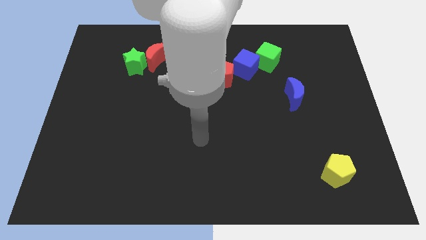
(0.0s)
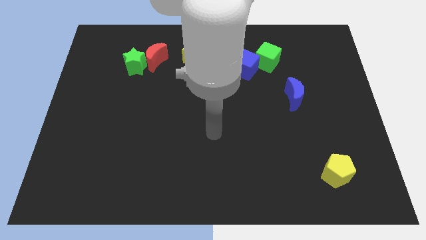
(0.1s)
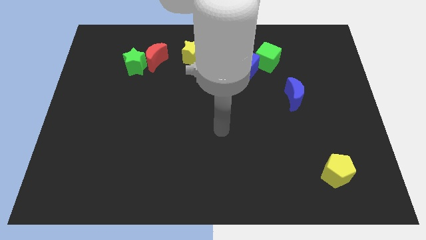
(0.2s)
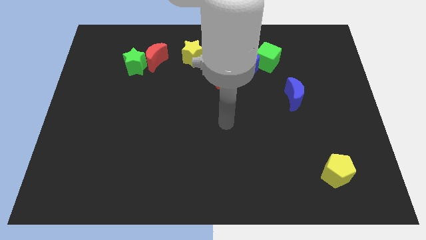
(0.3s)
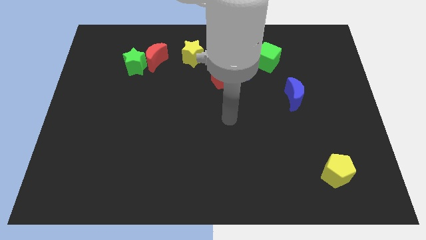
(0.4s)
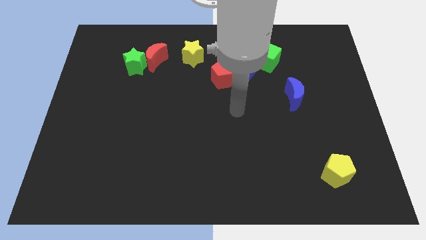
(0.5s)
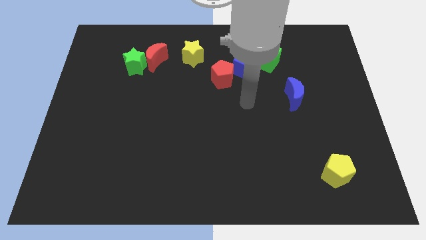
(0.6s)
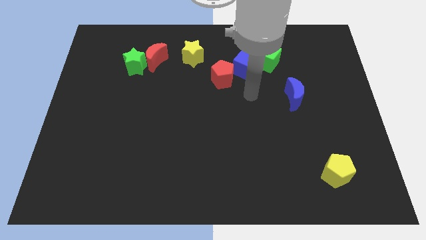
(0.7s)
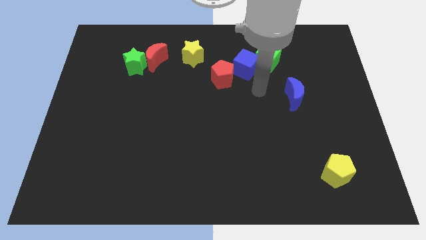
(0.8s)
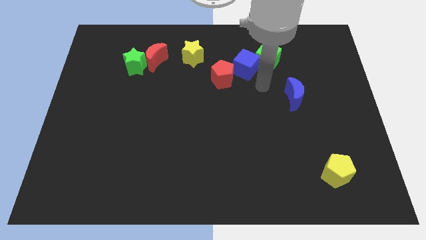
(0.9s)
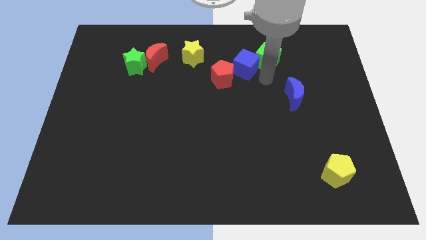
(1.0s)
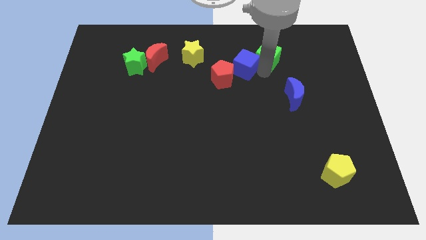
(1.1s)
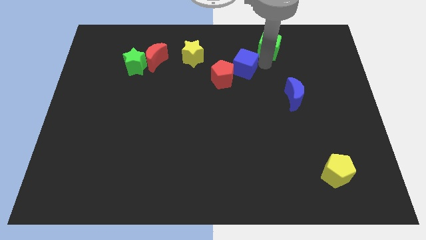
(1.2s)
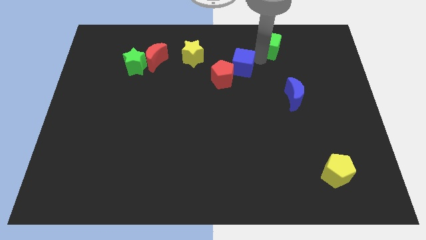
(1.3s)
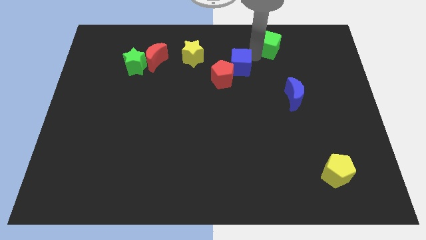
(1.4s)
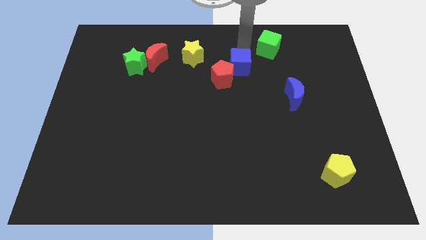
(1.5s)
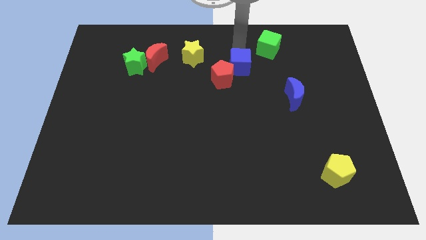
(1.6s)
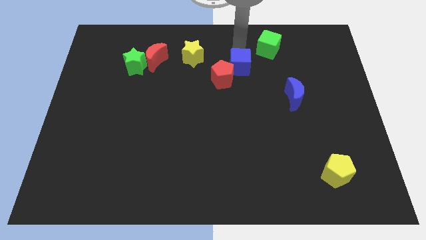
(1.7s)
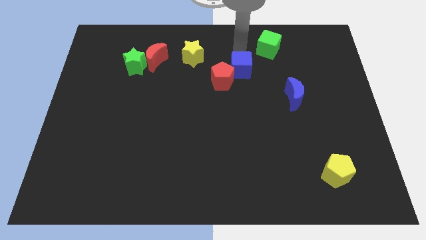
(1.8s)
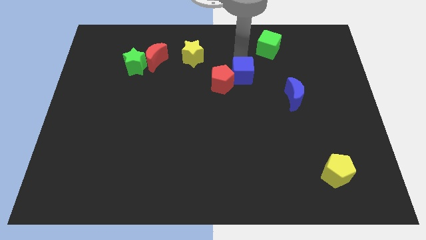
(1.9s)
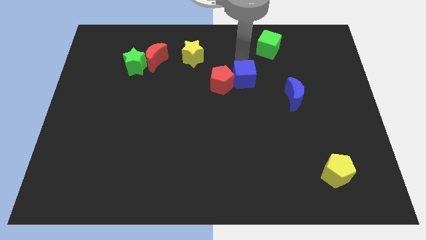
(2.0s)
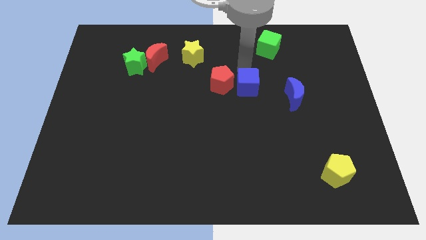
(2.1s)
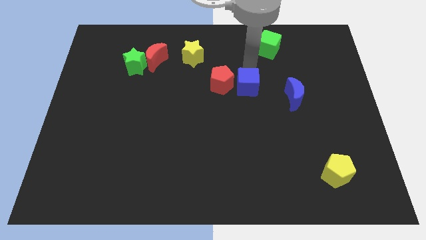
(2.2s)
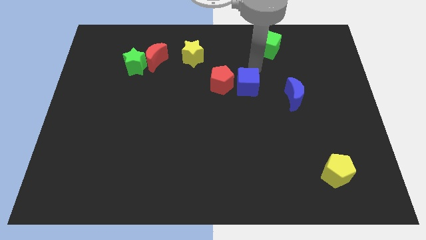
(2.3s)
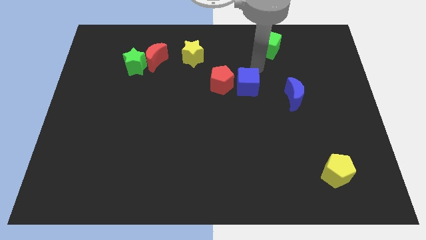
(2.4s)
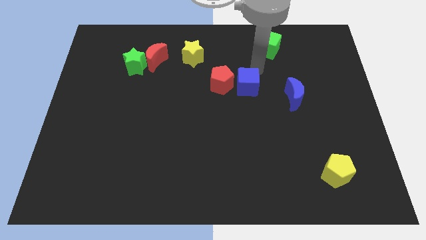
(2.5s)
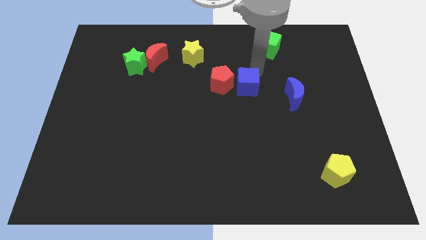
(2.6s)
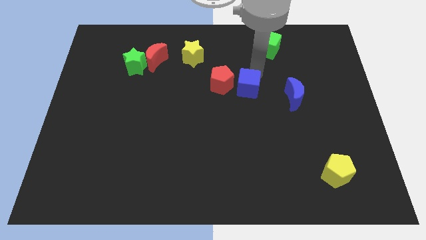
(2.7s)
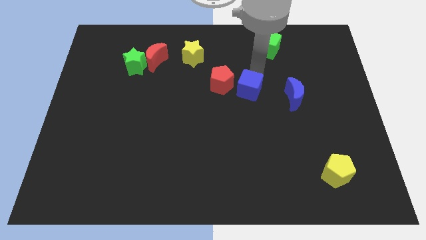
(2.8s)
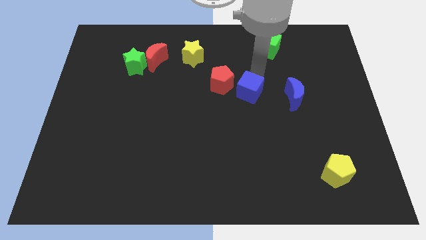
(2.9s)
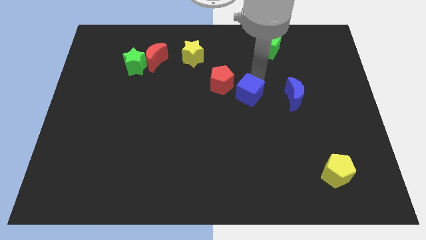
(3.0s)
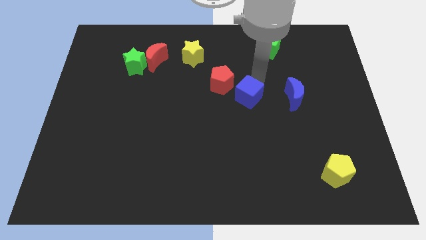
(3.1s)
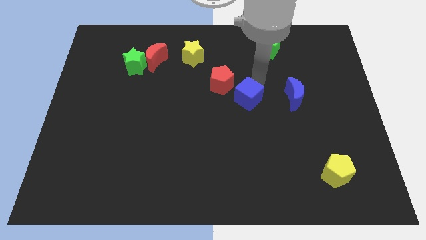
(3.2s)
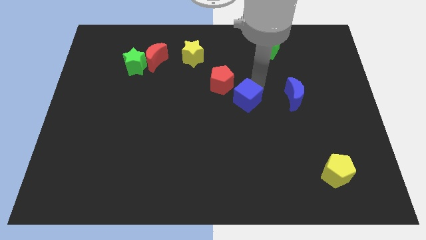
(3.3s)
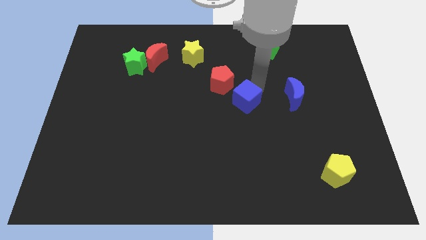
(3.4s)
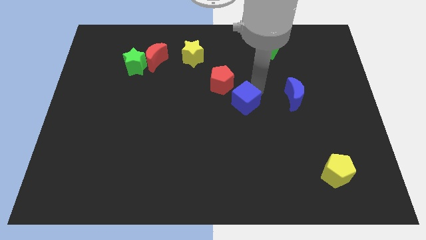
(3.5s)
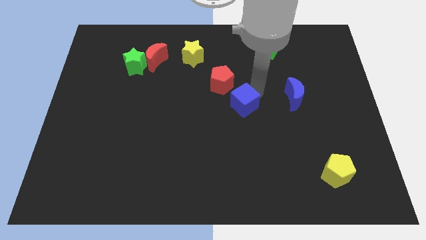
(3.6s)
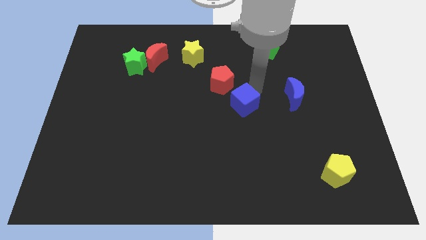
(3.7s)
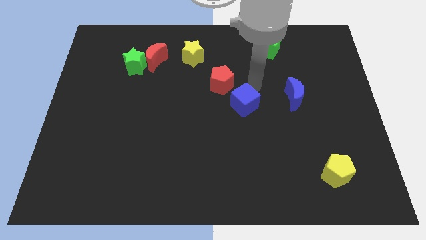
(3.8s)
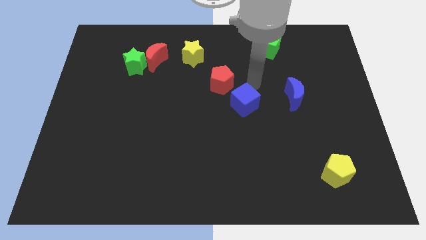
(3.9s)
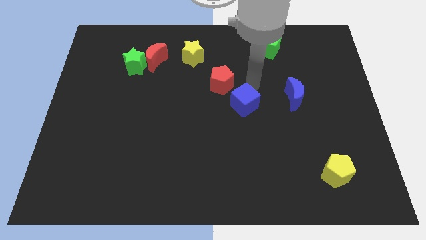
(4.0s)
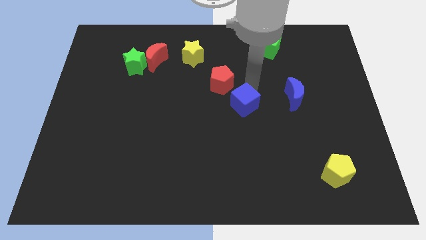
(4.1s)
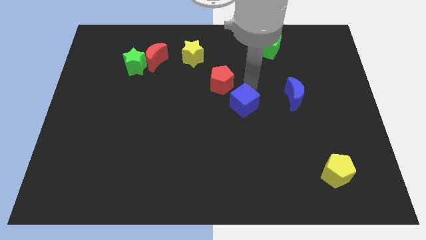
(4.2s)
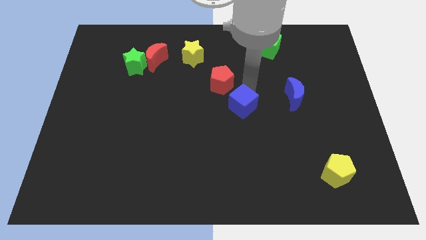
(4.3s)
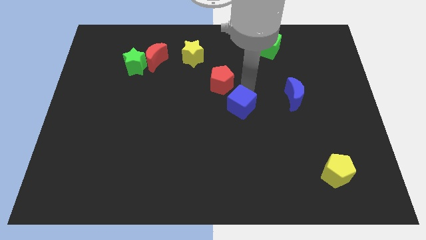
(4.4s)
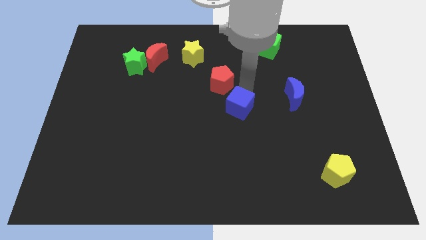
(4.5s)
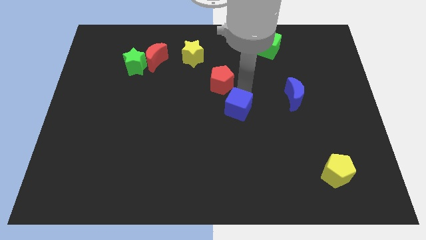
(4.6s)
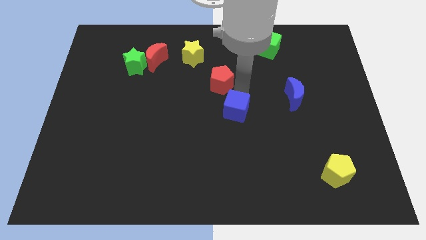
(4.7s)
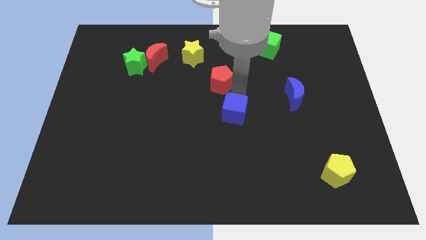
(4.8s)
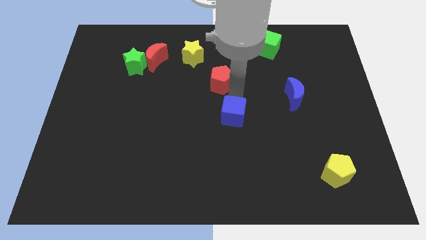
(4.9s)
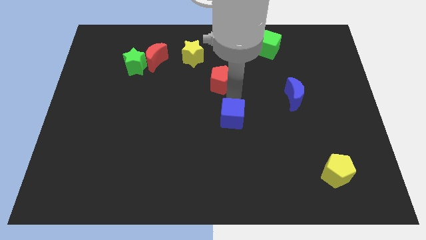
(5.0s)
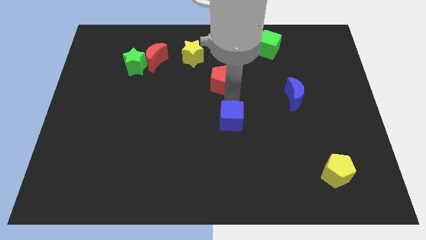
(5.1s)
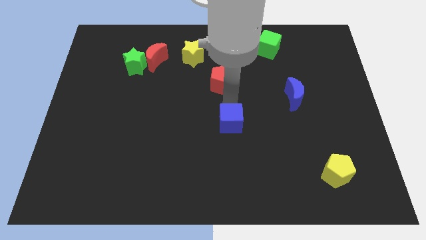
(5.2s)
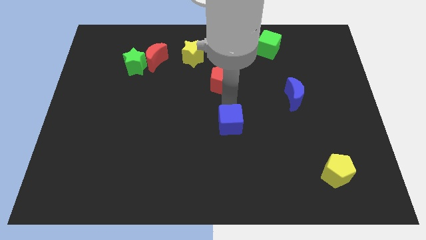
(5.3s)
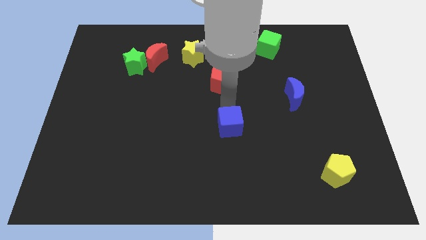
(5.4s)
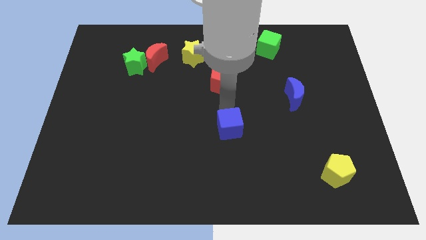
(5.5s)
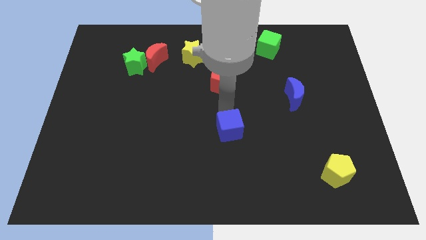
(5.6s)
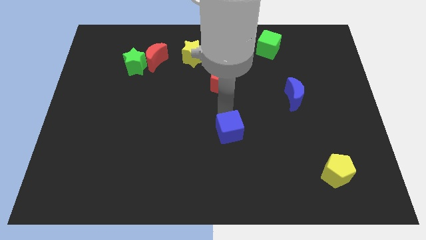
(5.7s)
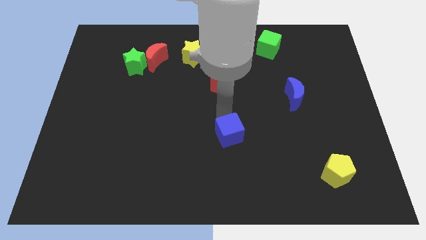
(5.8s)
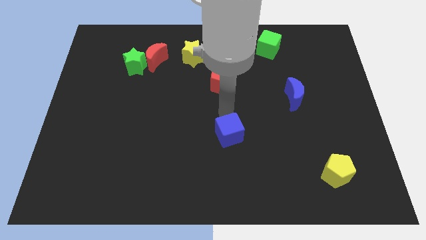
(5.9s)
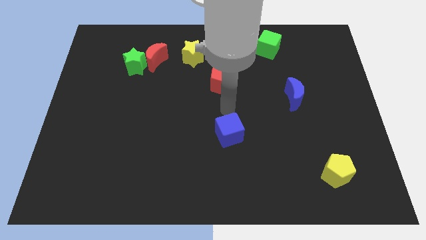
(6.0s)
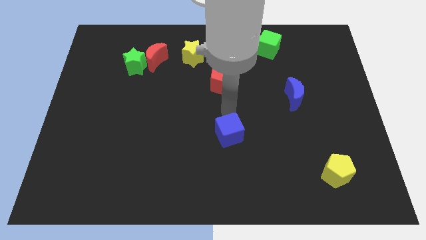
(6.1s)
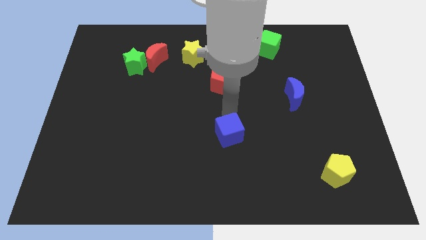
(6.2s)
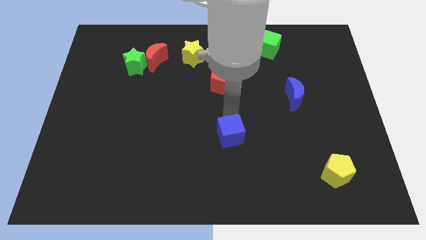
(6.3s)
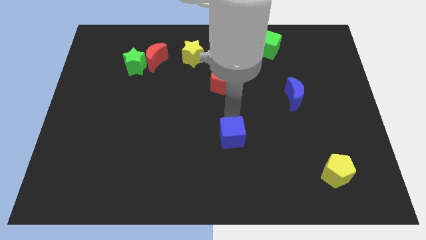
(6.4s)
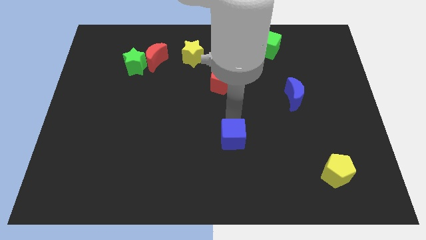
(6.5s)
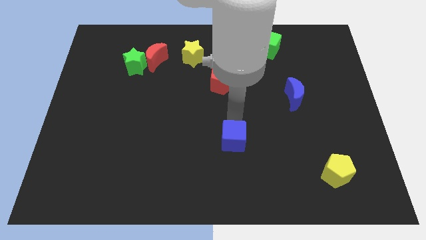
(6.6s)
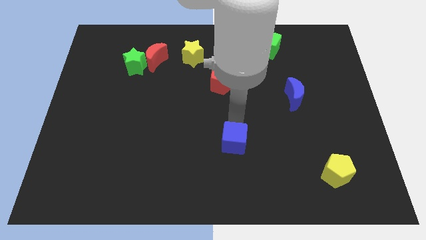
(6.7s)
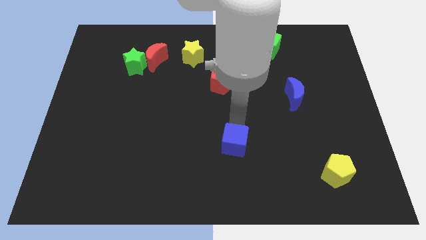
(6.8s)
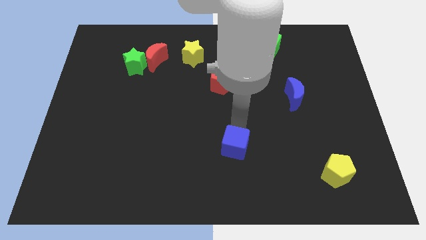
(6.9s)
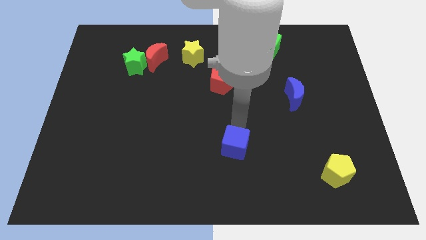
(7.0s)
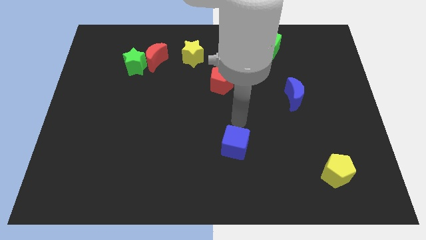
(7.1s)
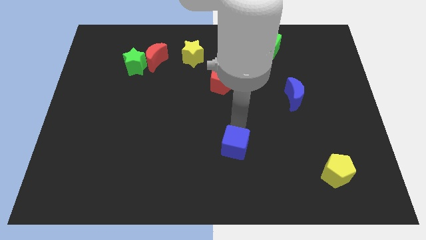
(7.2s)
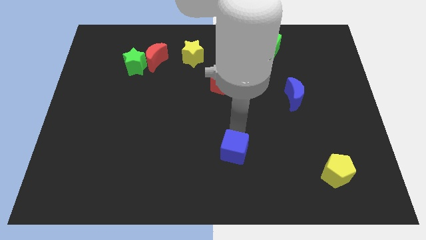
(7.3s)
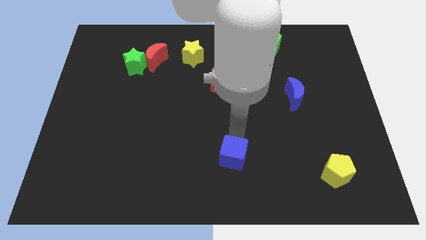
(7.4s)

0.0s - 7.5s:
slide the blue cube to the bottom
